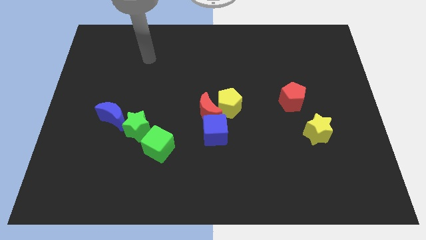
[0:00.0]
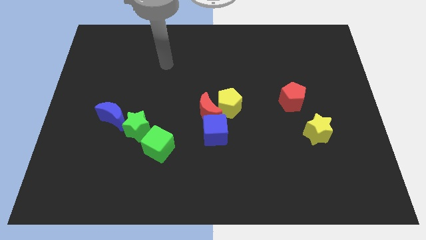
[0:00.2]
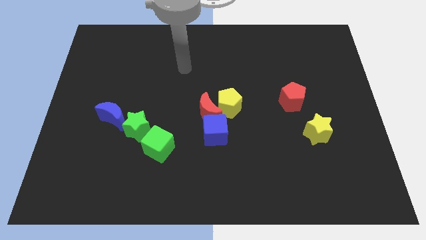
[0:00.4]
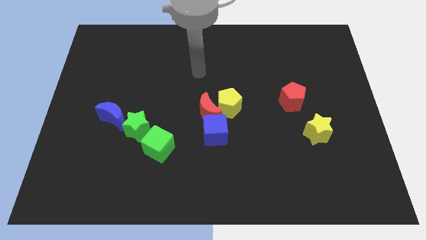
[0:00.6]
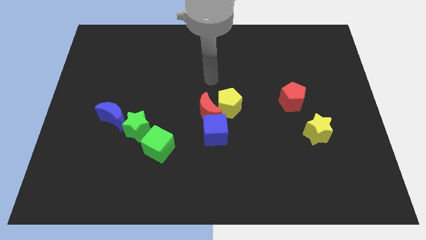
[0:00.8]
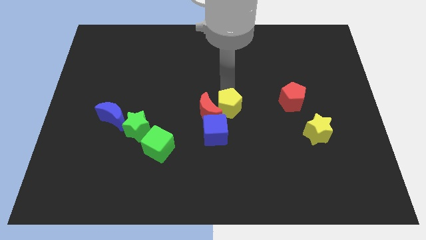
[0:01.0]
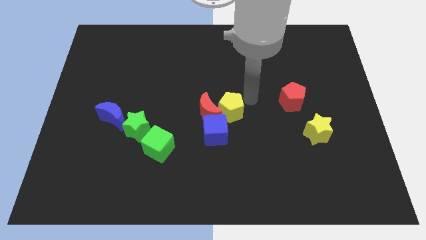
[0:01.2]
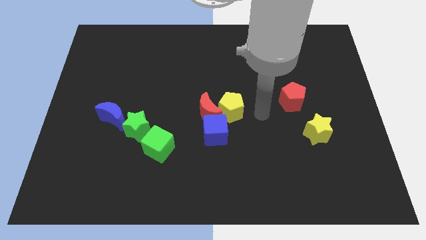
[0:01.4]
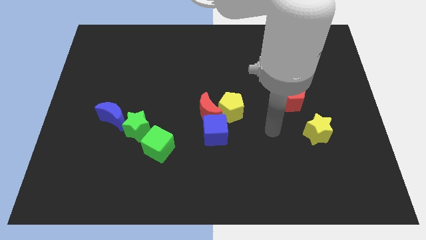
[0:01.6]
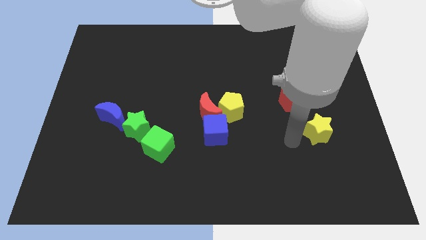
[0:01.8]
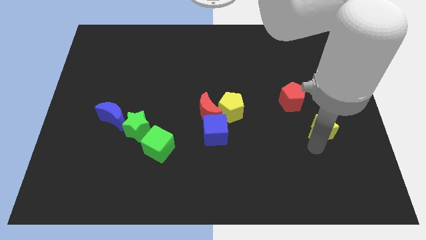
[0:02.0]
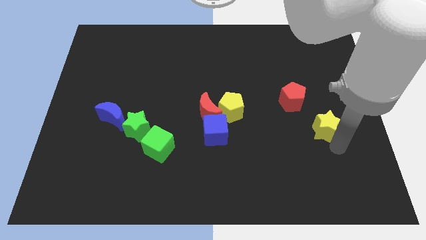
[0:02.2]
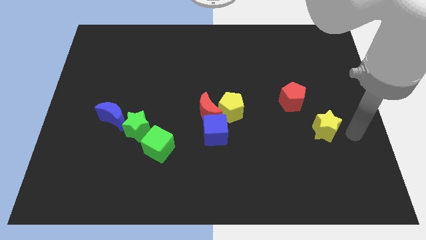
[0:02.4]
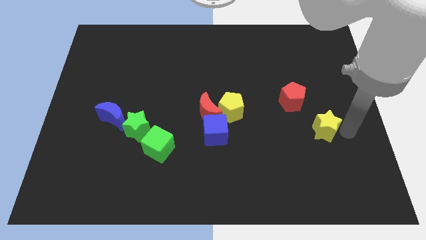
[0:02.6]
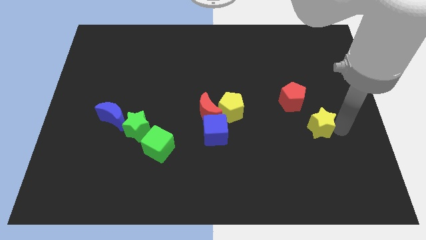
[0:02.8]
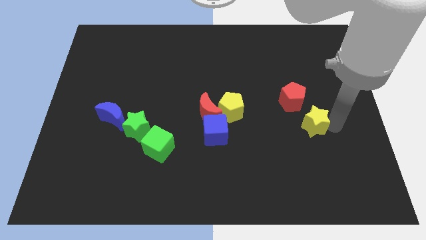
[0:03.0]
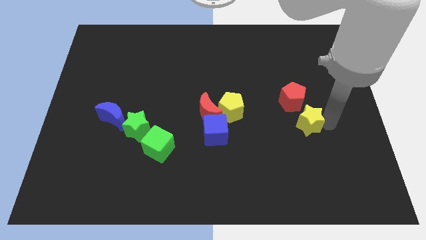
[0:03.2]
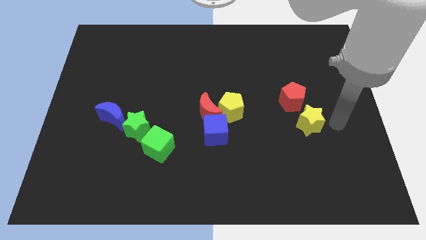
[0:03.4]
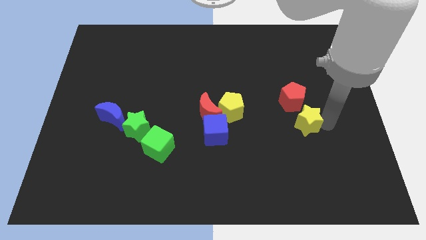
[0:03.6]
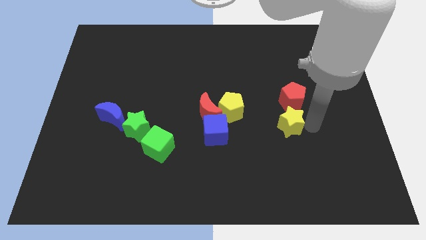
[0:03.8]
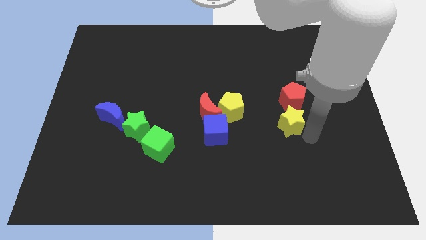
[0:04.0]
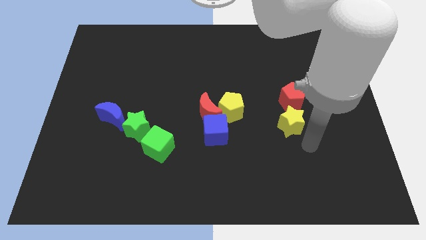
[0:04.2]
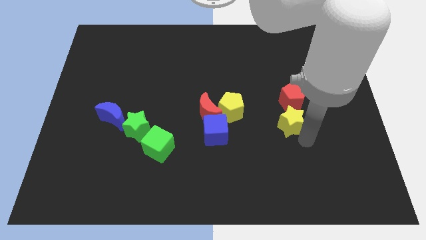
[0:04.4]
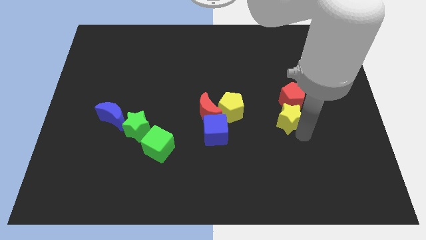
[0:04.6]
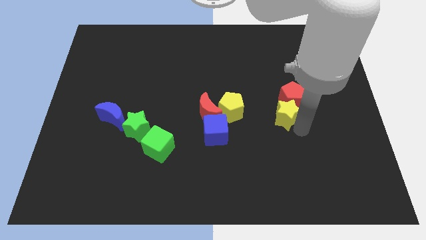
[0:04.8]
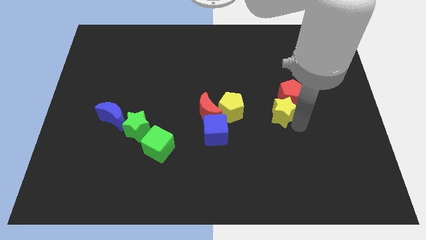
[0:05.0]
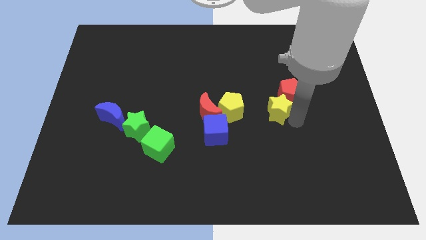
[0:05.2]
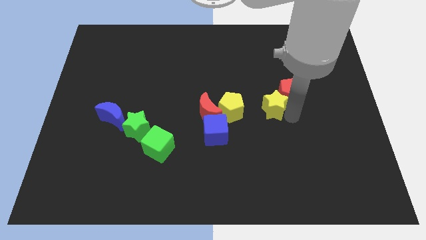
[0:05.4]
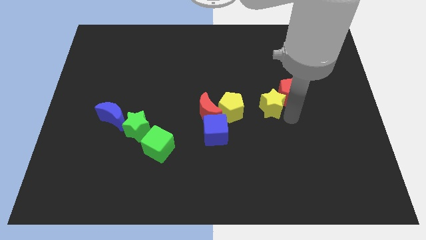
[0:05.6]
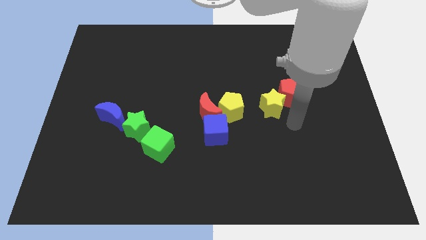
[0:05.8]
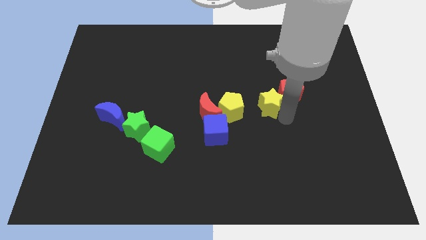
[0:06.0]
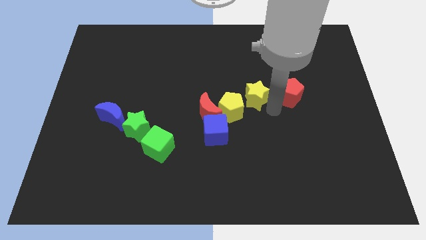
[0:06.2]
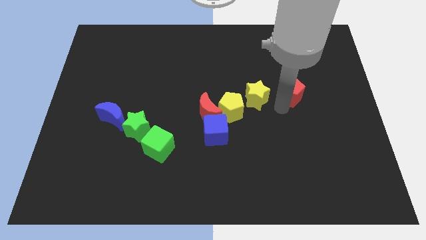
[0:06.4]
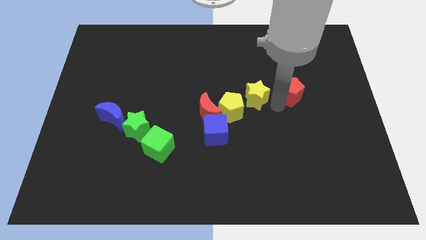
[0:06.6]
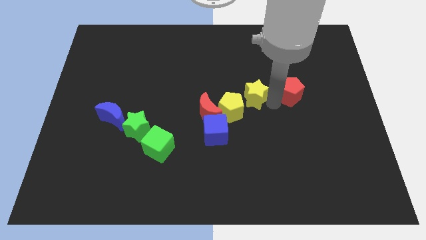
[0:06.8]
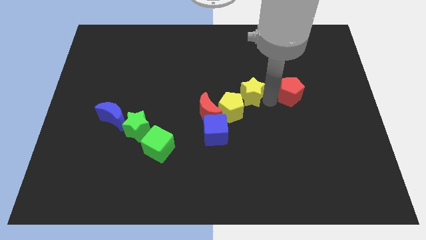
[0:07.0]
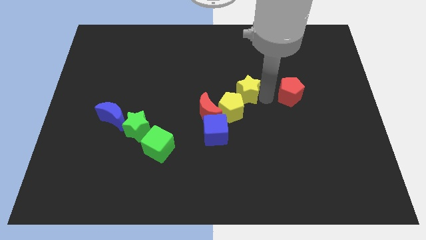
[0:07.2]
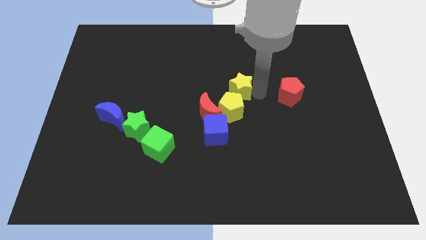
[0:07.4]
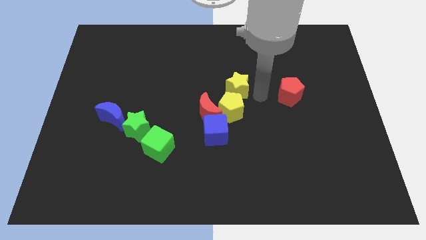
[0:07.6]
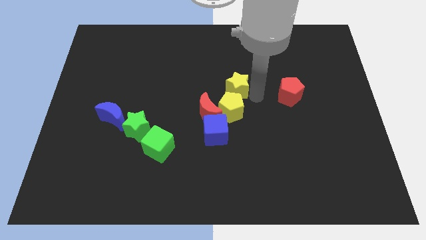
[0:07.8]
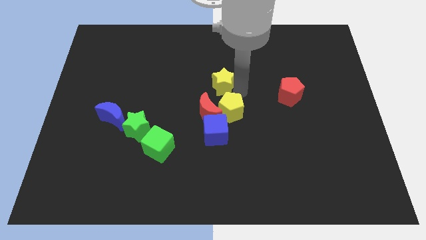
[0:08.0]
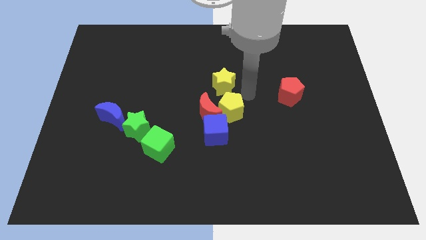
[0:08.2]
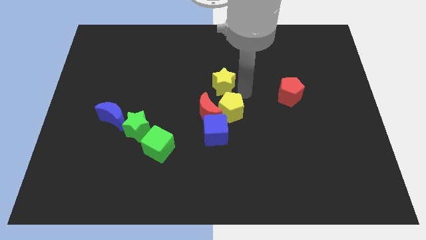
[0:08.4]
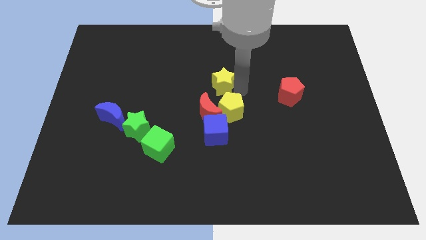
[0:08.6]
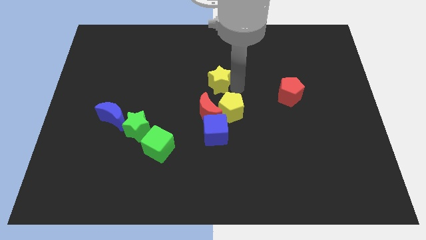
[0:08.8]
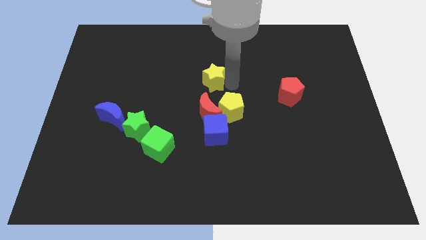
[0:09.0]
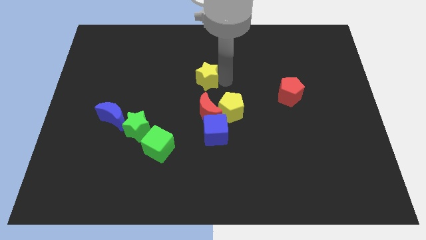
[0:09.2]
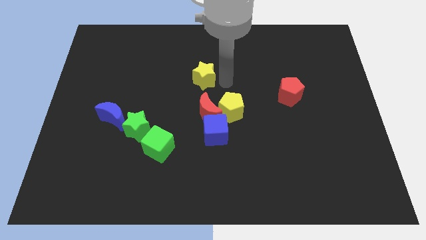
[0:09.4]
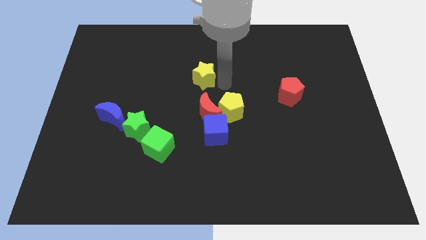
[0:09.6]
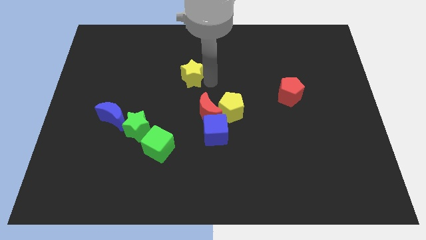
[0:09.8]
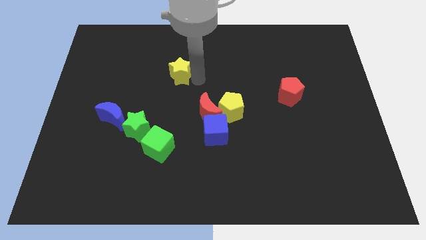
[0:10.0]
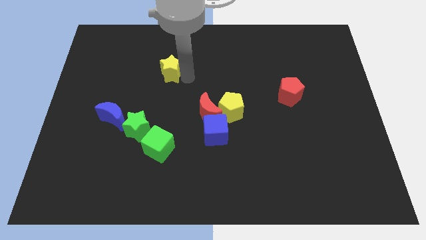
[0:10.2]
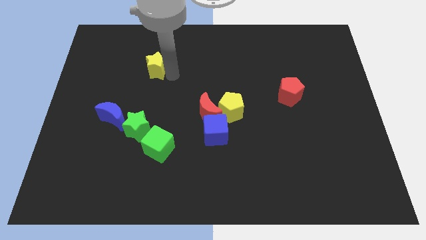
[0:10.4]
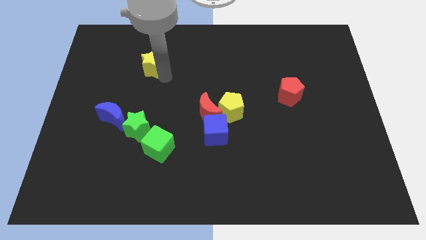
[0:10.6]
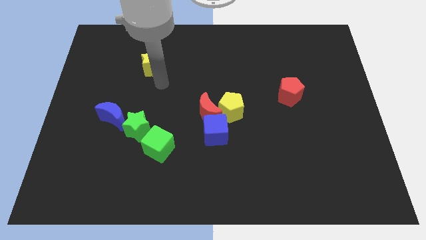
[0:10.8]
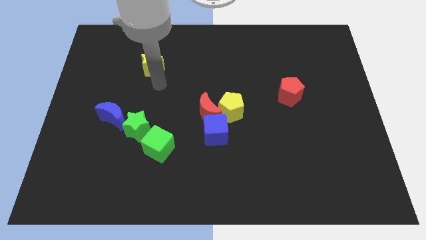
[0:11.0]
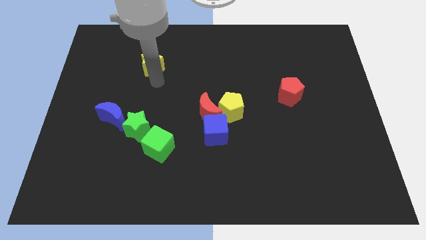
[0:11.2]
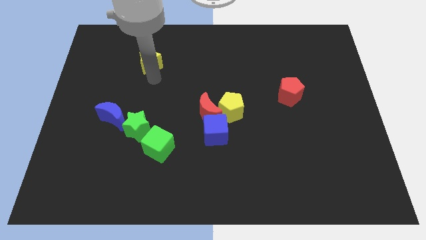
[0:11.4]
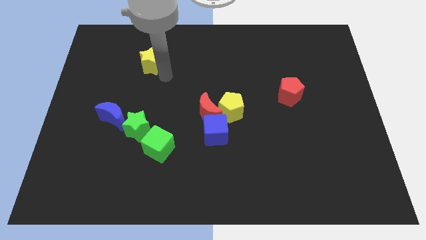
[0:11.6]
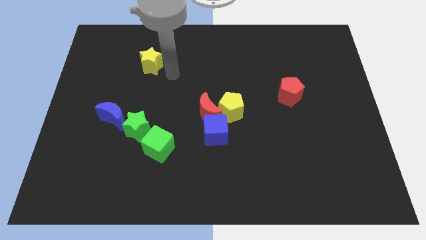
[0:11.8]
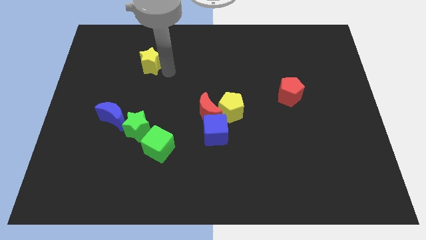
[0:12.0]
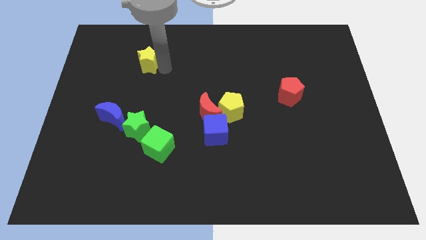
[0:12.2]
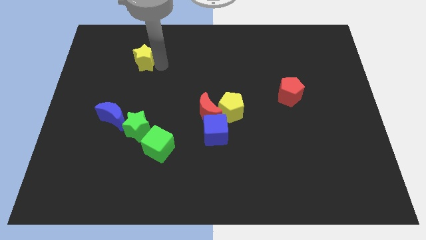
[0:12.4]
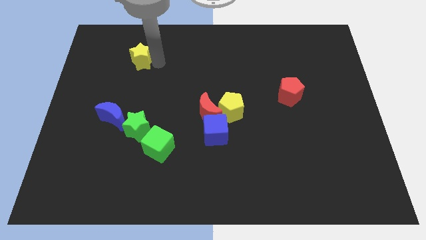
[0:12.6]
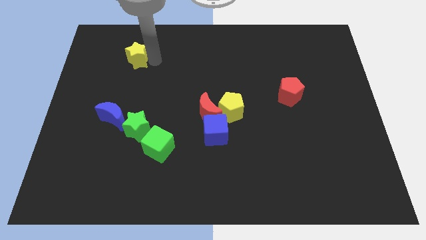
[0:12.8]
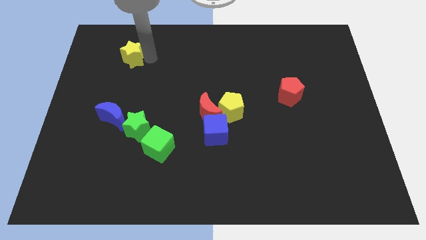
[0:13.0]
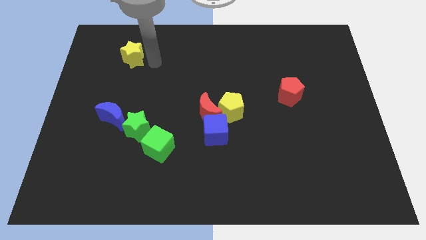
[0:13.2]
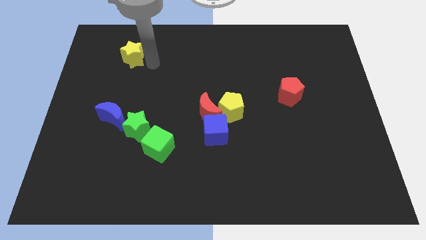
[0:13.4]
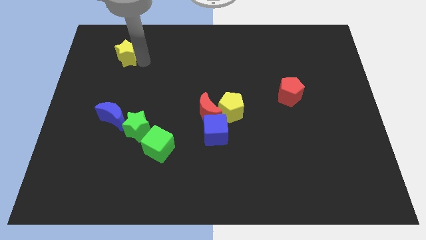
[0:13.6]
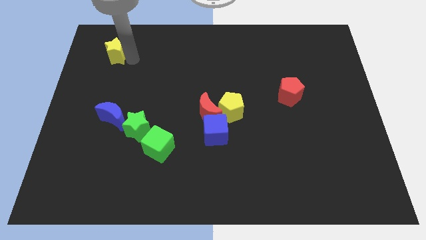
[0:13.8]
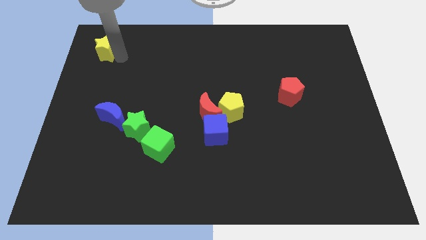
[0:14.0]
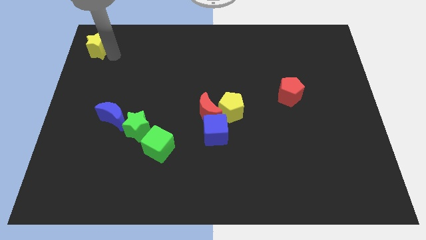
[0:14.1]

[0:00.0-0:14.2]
move the yellow star to the top left of the board
